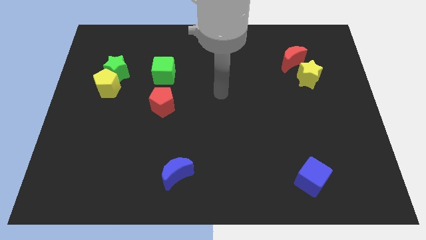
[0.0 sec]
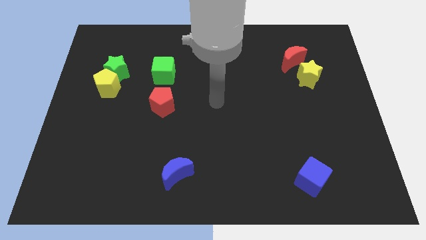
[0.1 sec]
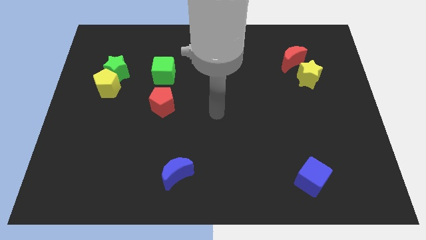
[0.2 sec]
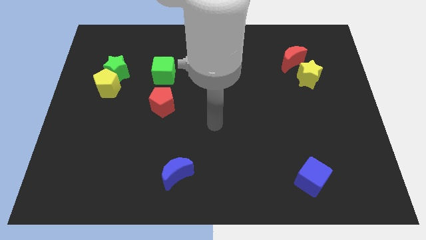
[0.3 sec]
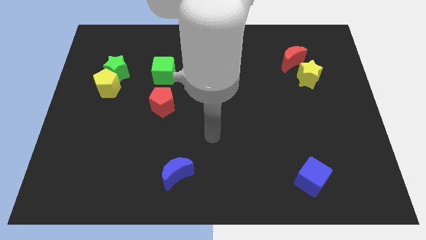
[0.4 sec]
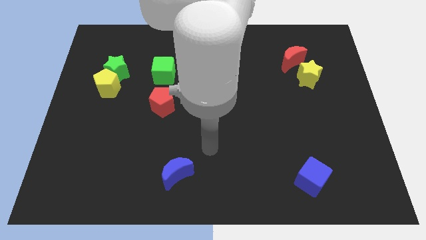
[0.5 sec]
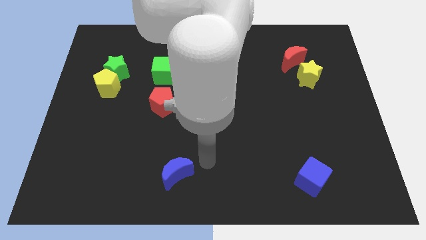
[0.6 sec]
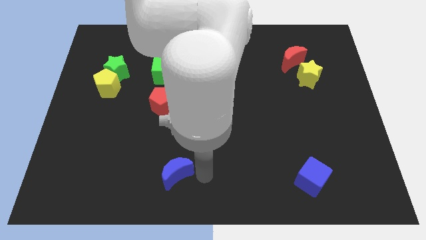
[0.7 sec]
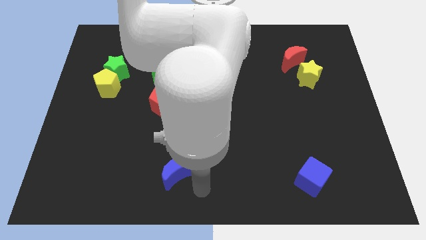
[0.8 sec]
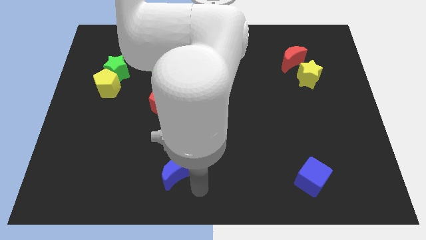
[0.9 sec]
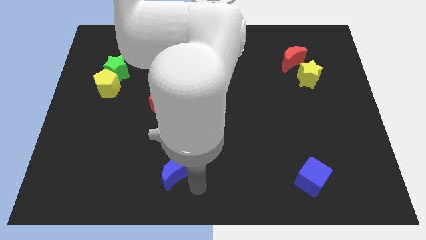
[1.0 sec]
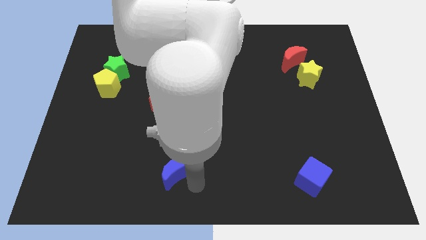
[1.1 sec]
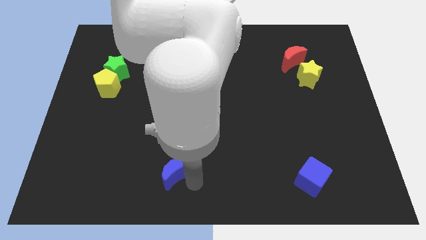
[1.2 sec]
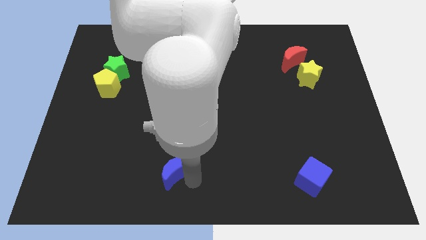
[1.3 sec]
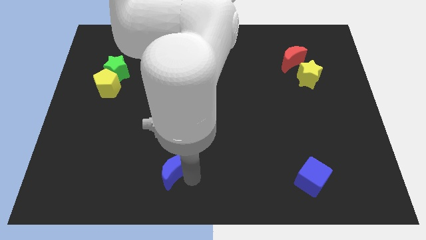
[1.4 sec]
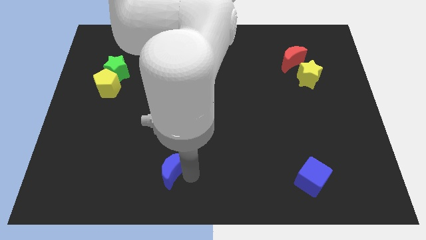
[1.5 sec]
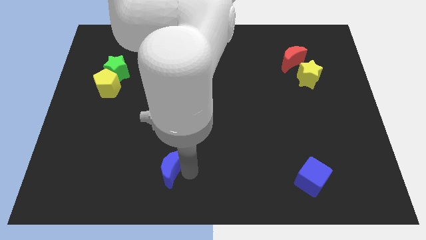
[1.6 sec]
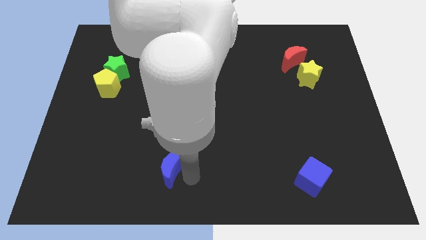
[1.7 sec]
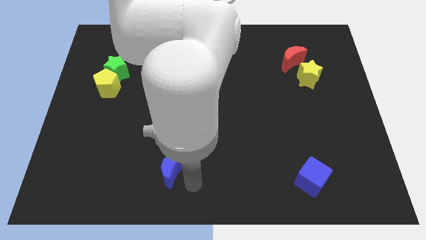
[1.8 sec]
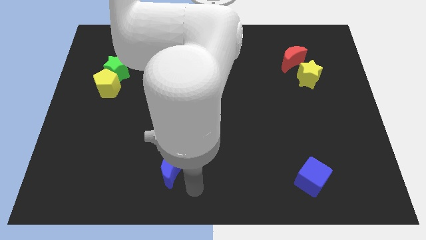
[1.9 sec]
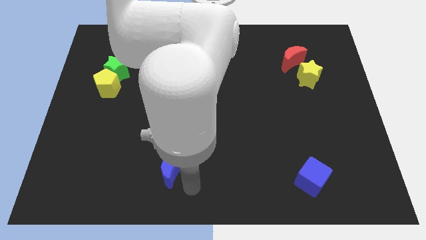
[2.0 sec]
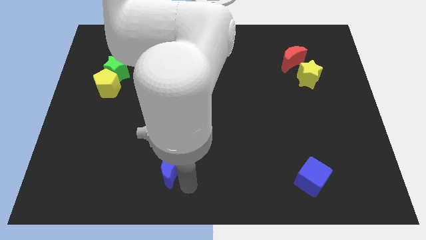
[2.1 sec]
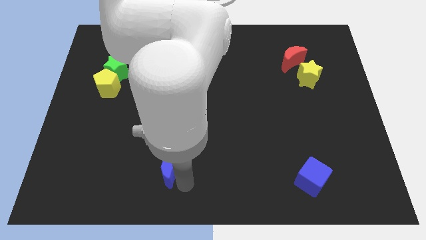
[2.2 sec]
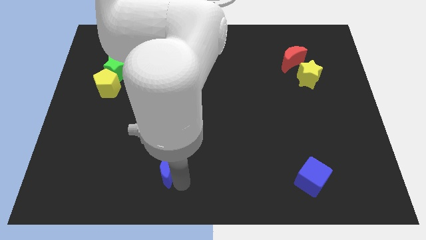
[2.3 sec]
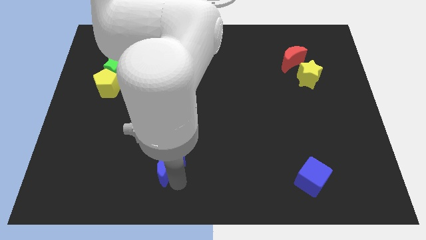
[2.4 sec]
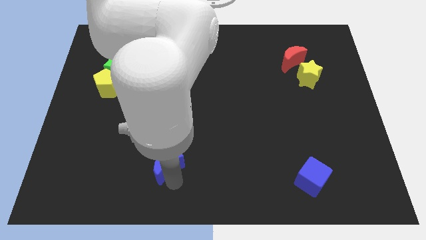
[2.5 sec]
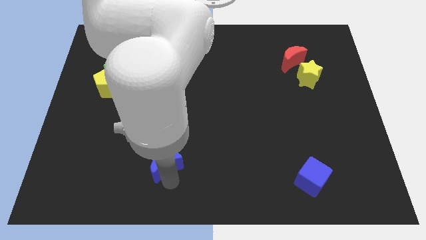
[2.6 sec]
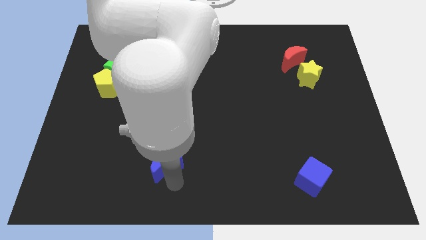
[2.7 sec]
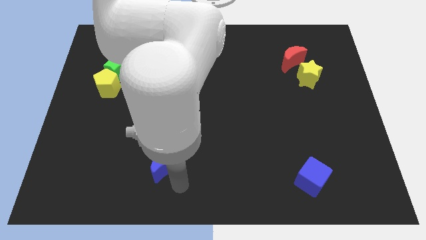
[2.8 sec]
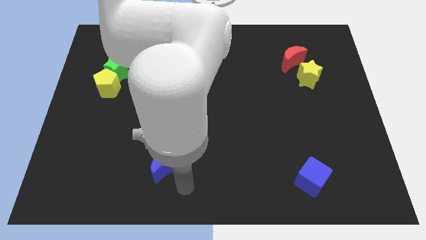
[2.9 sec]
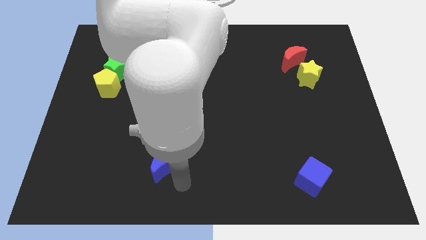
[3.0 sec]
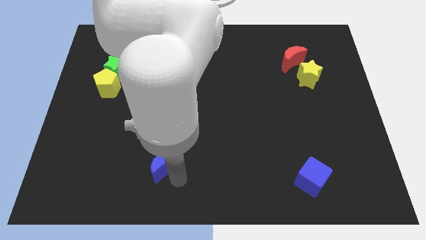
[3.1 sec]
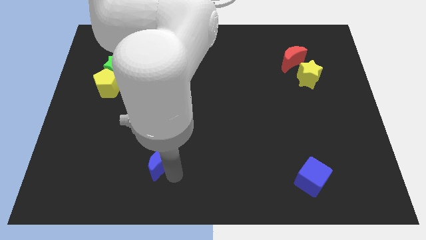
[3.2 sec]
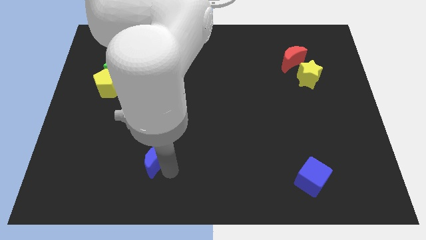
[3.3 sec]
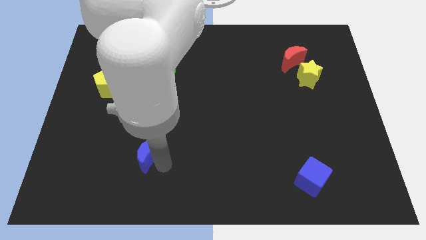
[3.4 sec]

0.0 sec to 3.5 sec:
slide the blue moon a little up and left

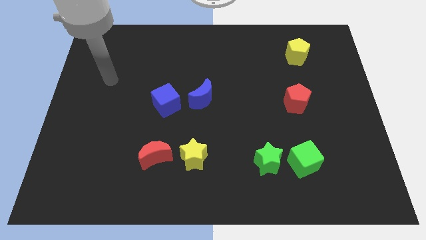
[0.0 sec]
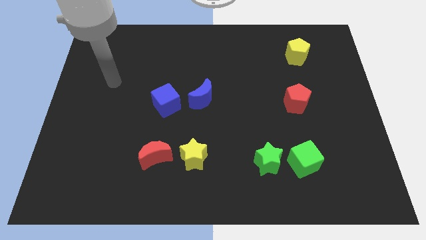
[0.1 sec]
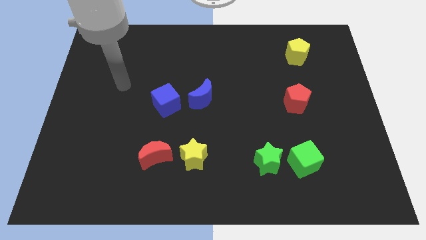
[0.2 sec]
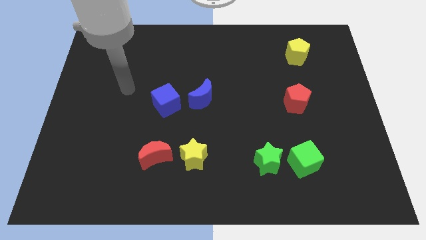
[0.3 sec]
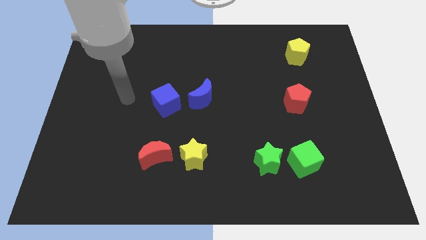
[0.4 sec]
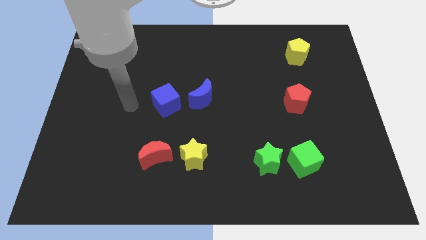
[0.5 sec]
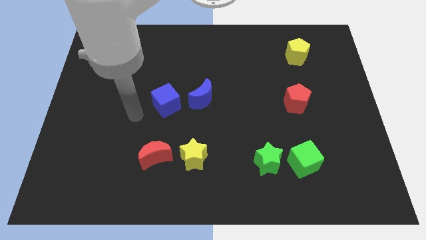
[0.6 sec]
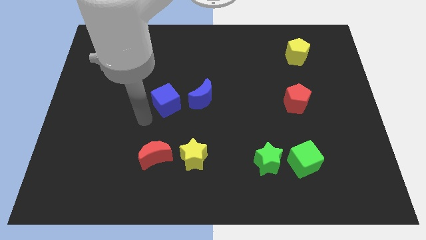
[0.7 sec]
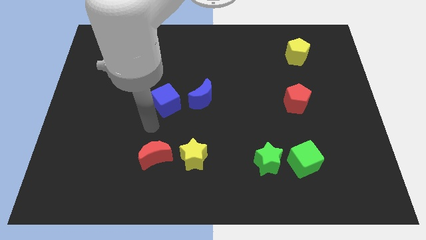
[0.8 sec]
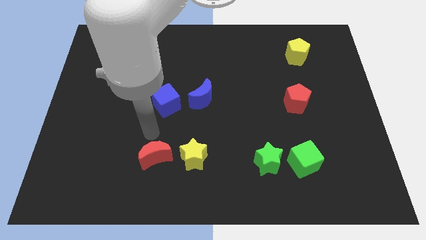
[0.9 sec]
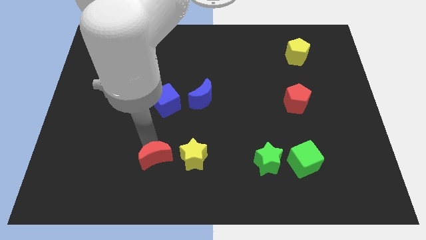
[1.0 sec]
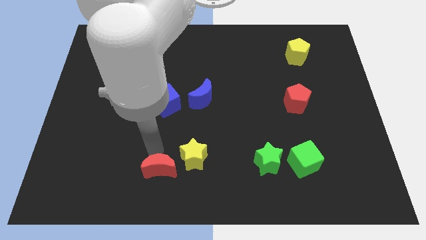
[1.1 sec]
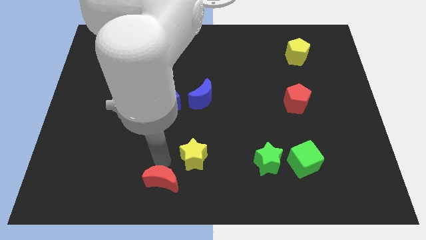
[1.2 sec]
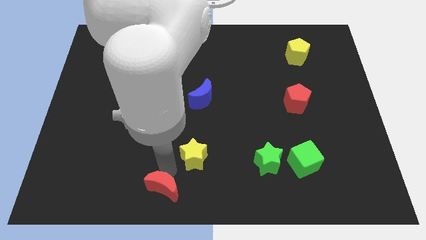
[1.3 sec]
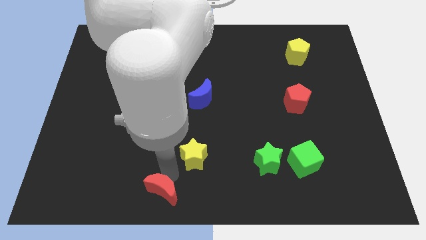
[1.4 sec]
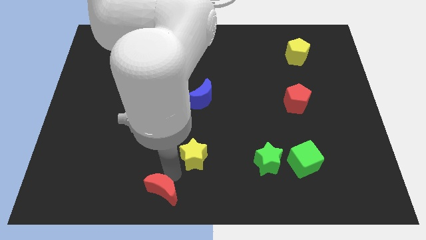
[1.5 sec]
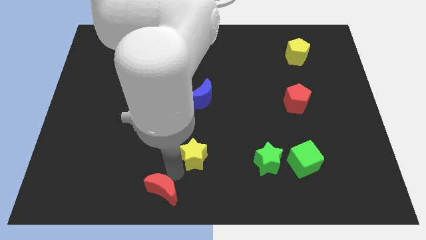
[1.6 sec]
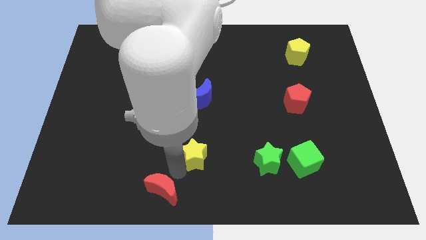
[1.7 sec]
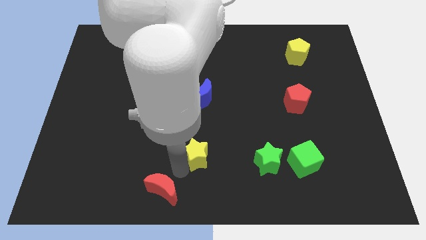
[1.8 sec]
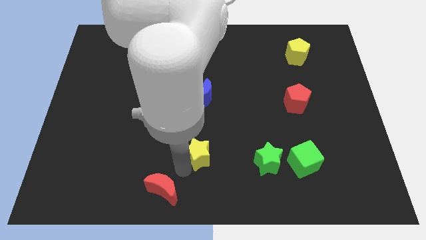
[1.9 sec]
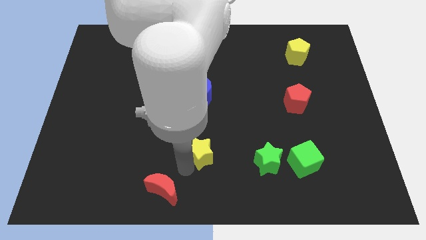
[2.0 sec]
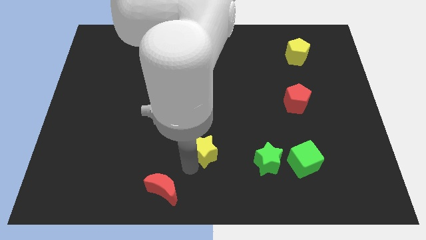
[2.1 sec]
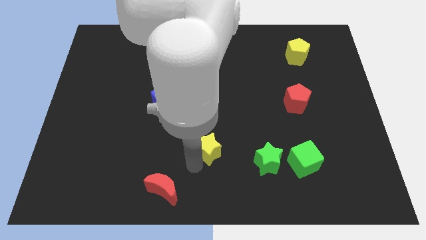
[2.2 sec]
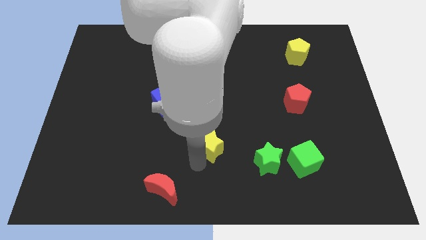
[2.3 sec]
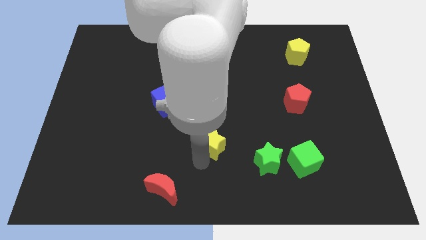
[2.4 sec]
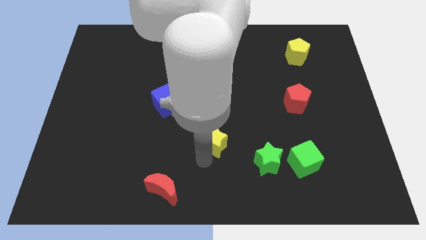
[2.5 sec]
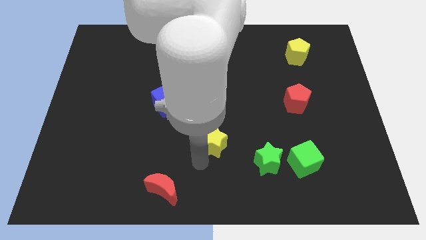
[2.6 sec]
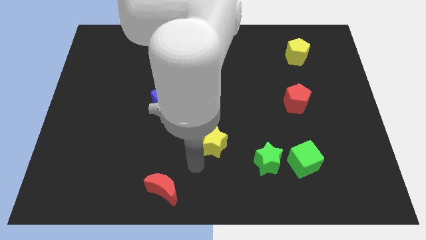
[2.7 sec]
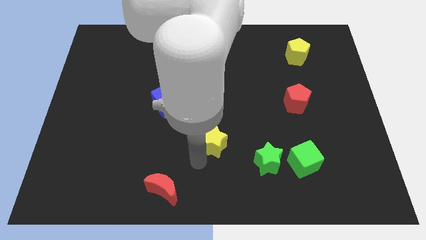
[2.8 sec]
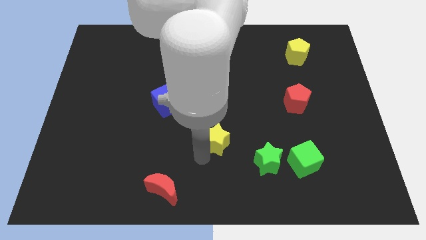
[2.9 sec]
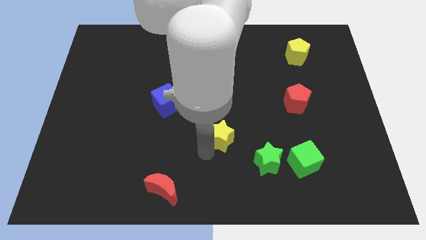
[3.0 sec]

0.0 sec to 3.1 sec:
push the yellow star somewhat upwards and to the right diagonally

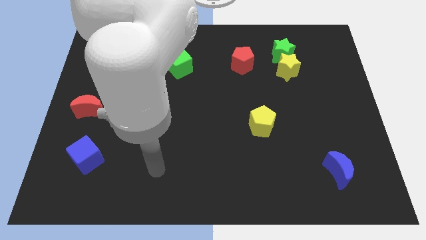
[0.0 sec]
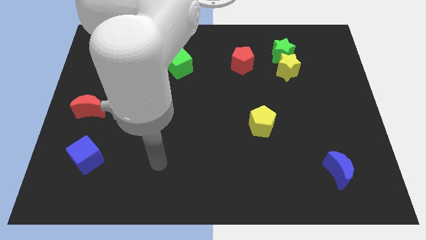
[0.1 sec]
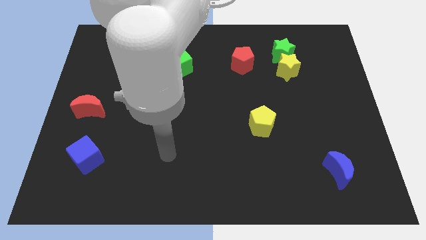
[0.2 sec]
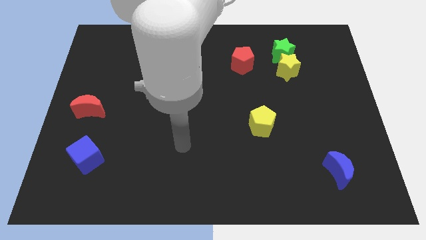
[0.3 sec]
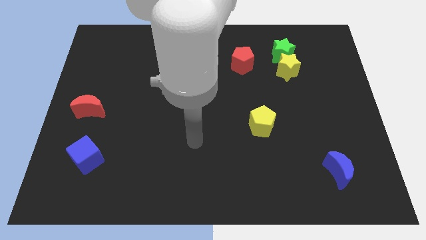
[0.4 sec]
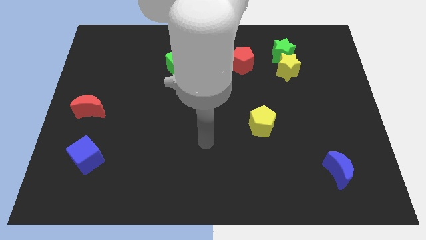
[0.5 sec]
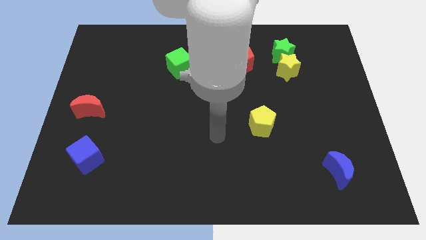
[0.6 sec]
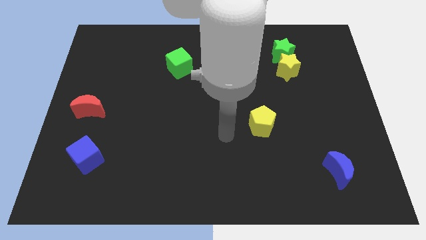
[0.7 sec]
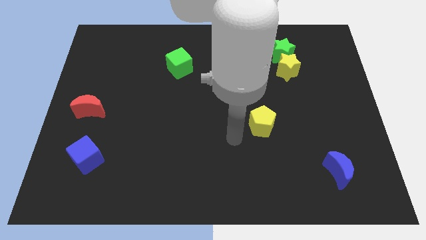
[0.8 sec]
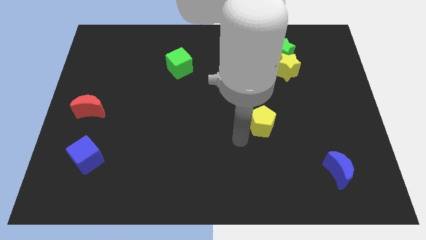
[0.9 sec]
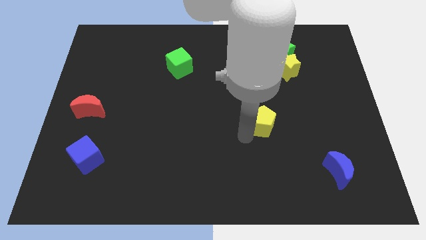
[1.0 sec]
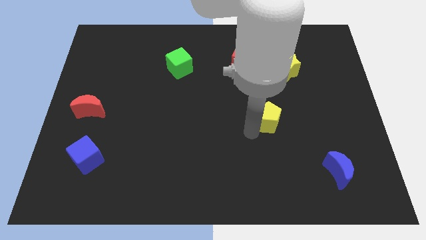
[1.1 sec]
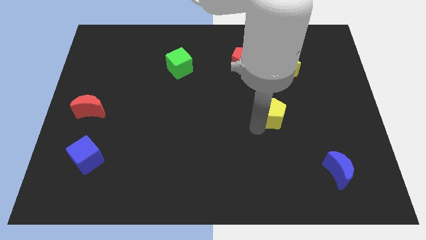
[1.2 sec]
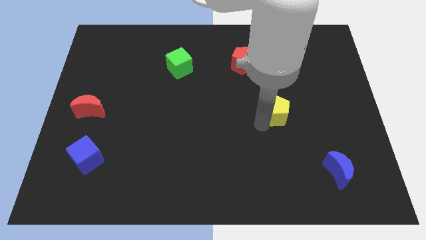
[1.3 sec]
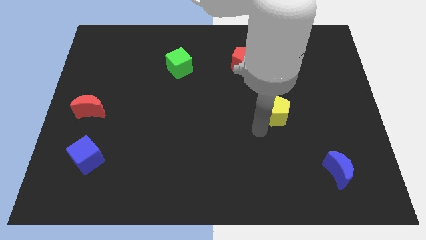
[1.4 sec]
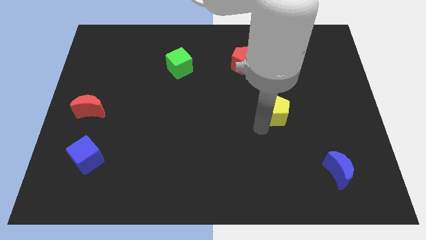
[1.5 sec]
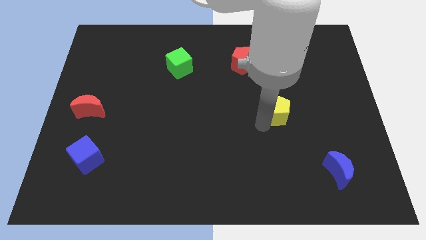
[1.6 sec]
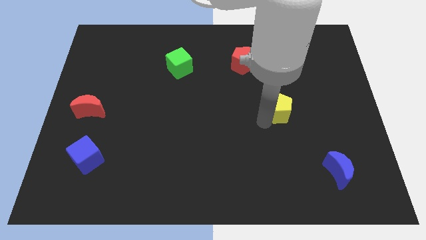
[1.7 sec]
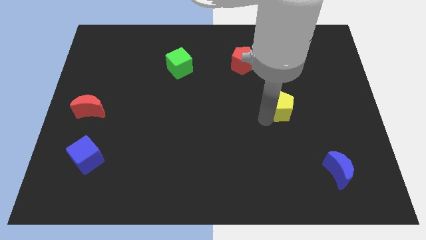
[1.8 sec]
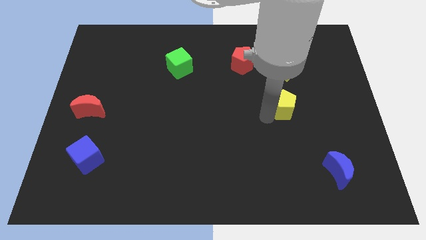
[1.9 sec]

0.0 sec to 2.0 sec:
slightly push the yellow pentagon upwards and to the right diagonally
